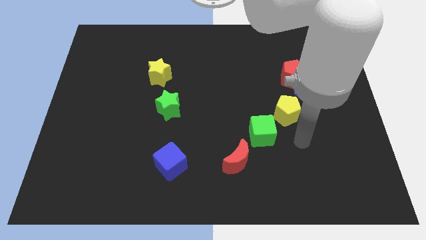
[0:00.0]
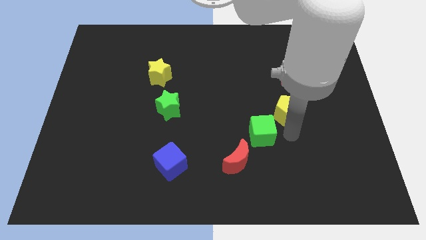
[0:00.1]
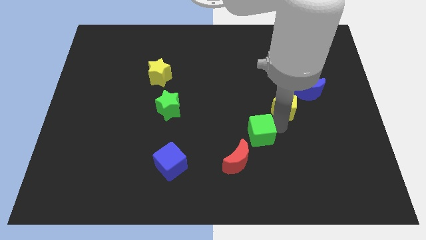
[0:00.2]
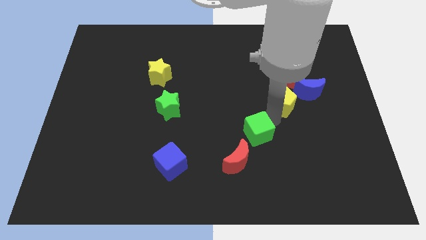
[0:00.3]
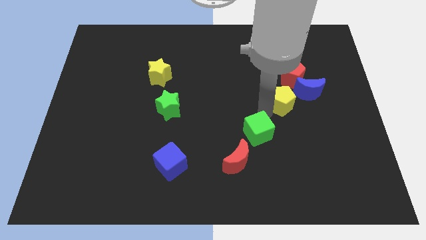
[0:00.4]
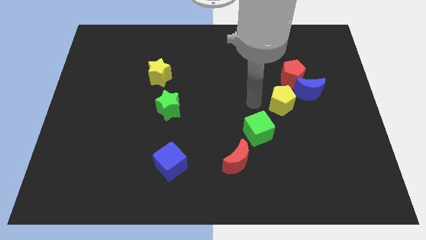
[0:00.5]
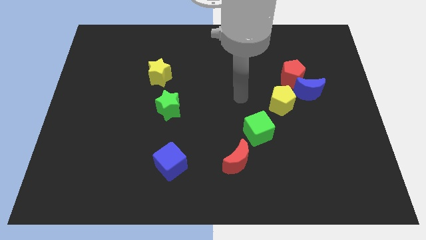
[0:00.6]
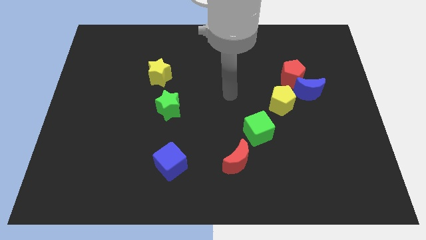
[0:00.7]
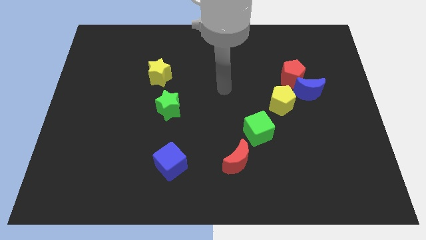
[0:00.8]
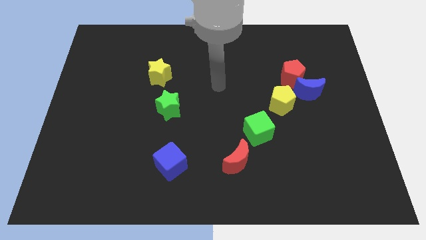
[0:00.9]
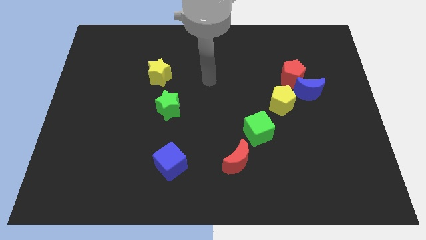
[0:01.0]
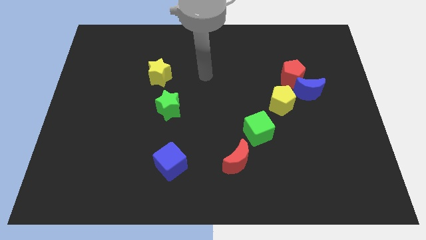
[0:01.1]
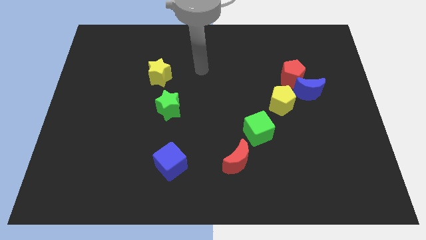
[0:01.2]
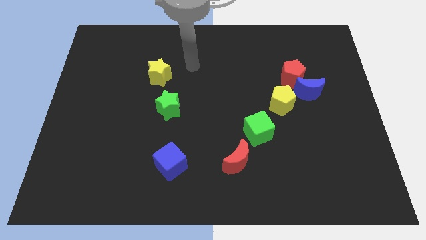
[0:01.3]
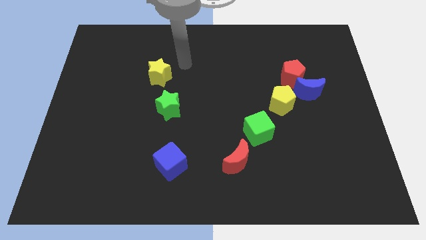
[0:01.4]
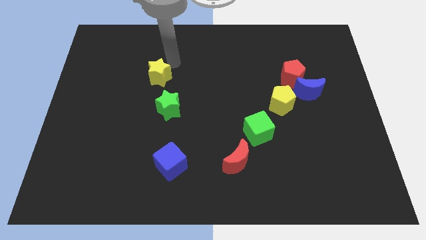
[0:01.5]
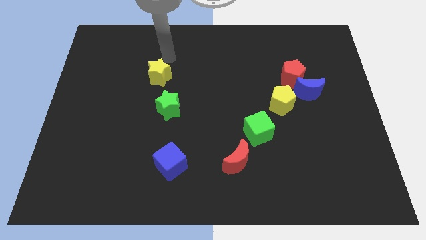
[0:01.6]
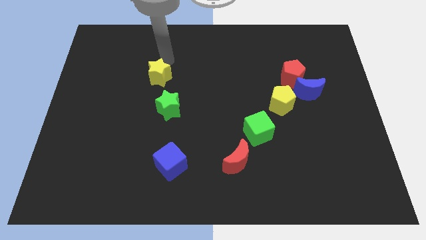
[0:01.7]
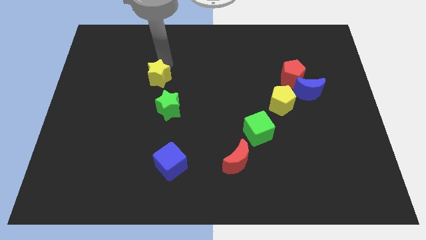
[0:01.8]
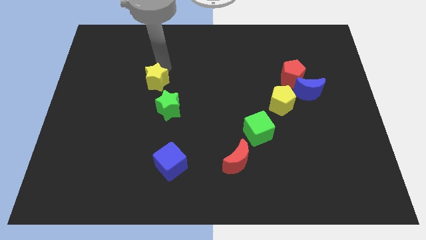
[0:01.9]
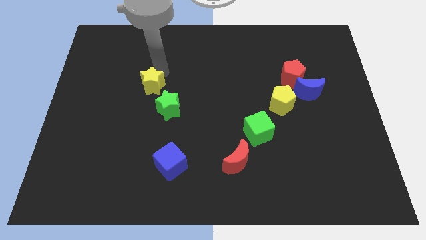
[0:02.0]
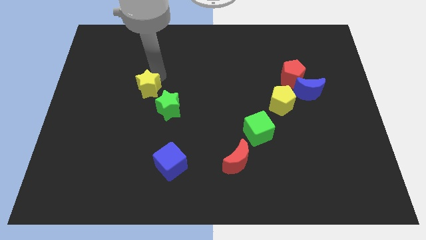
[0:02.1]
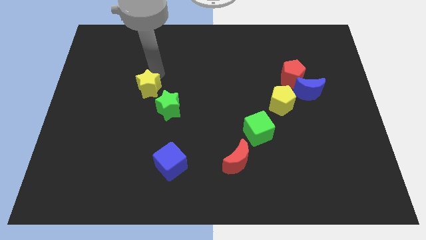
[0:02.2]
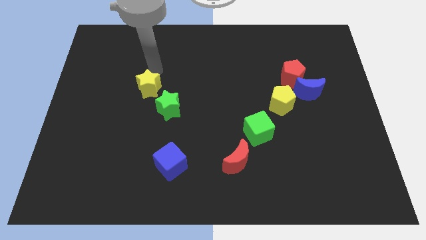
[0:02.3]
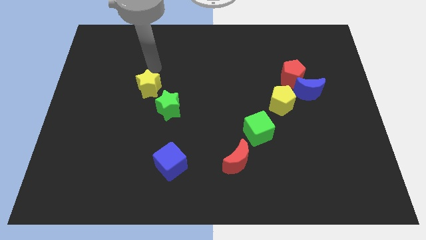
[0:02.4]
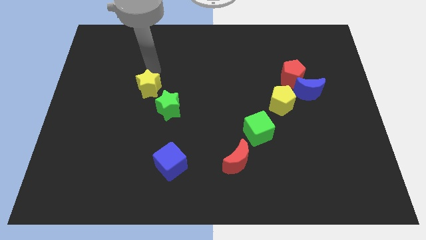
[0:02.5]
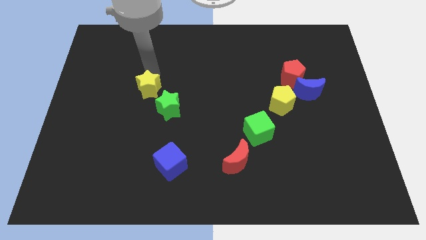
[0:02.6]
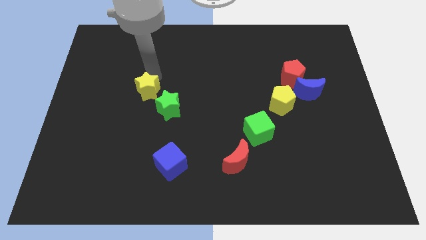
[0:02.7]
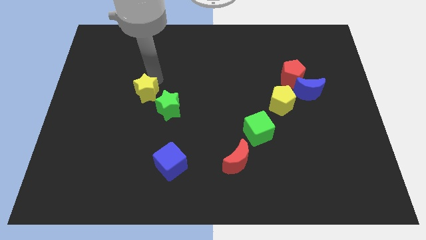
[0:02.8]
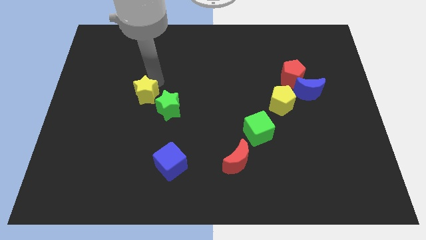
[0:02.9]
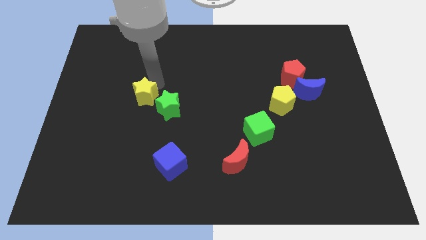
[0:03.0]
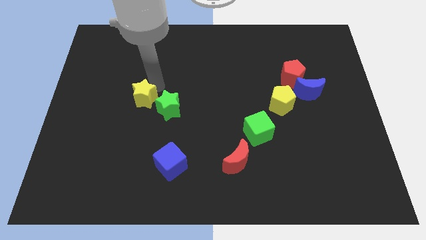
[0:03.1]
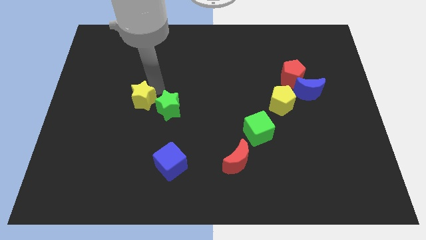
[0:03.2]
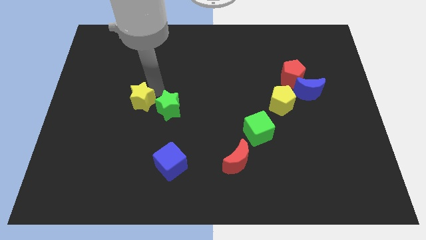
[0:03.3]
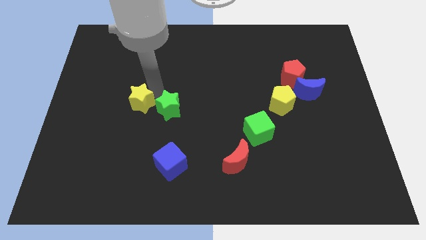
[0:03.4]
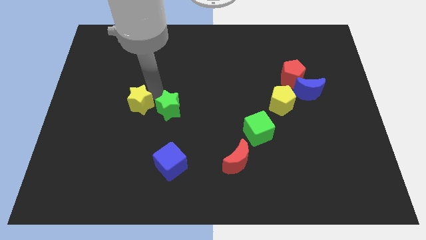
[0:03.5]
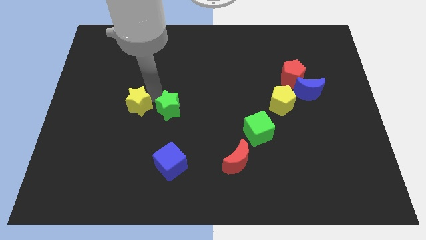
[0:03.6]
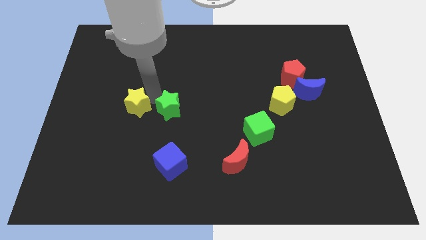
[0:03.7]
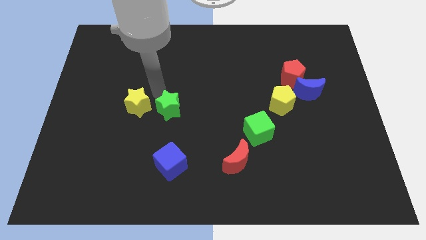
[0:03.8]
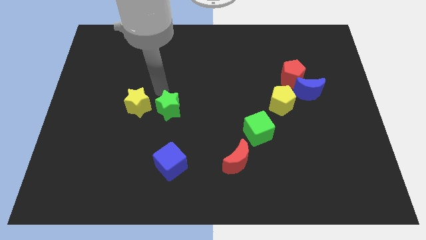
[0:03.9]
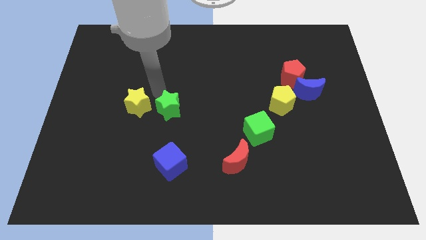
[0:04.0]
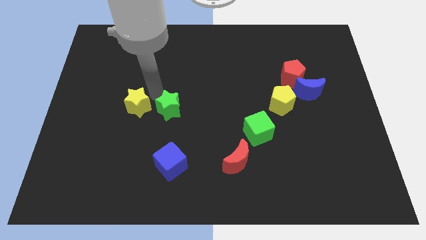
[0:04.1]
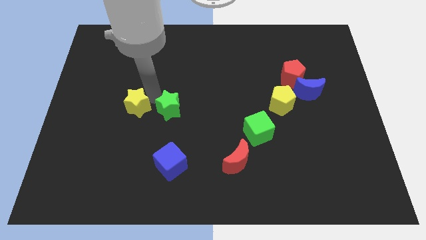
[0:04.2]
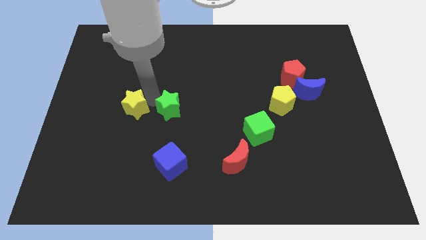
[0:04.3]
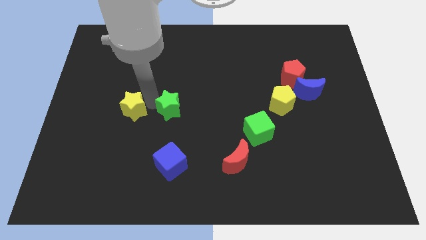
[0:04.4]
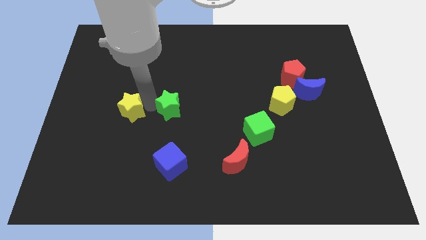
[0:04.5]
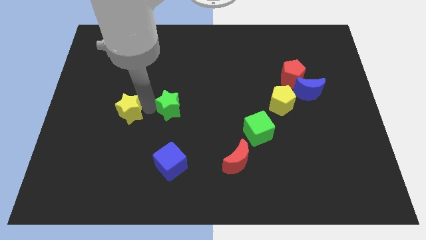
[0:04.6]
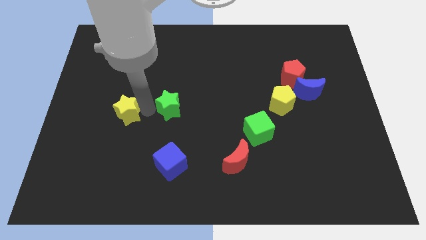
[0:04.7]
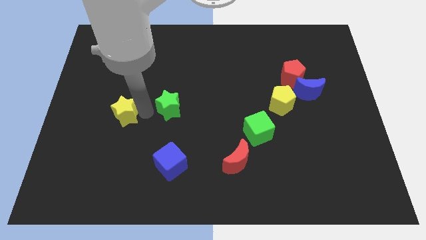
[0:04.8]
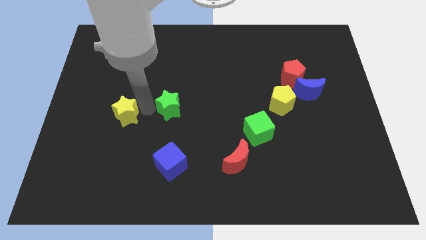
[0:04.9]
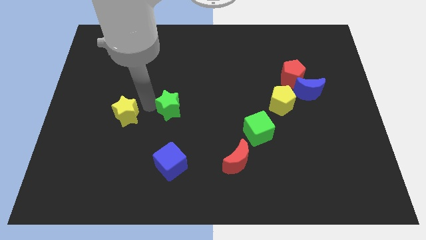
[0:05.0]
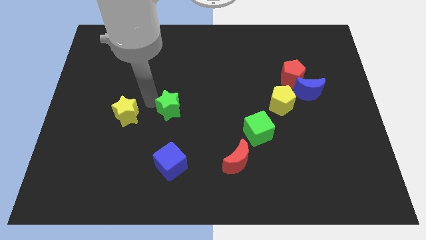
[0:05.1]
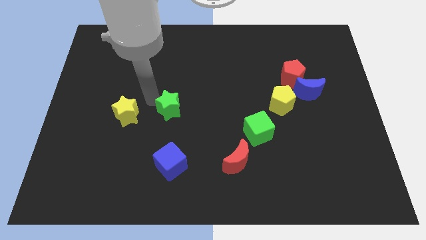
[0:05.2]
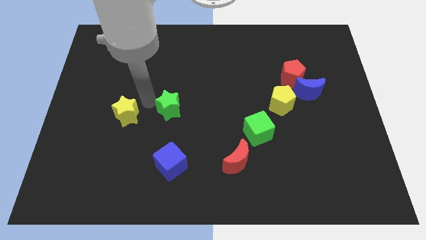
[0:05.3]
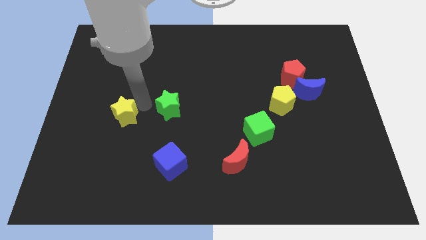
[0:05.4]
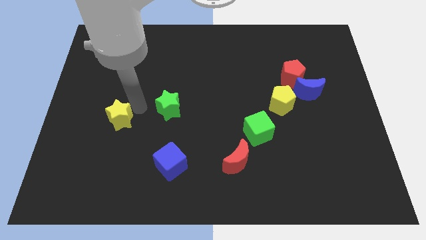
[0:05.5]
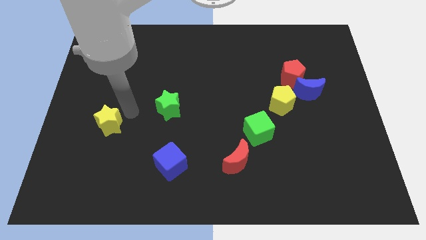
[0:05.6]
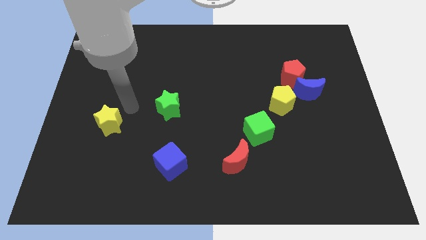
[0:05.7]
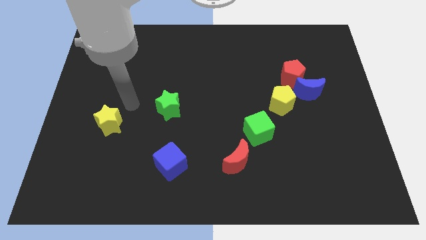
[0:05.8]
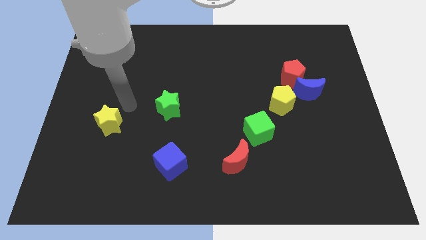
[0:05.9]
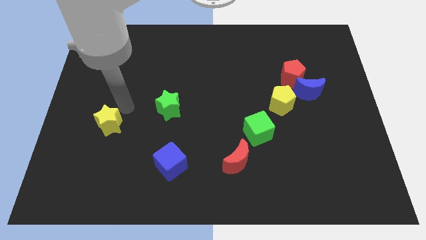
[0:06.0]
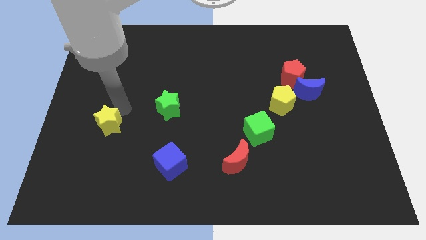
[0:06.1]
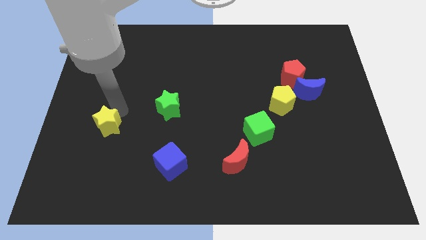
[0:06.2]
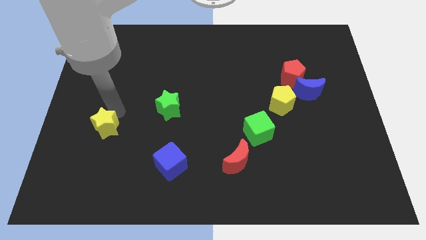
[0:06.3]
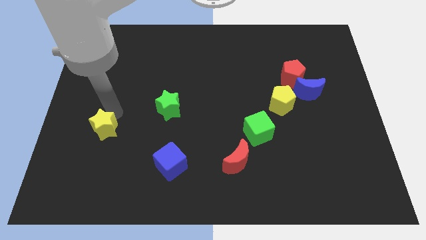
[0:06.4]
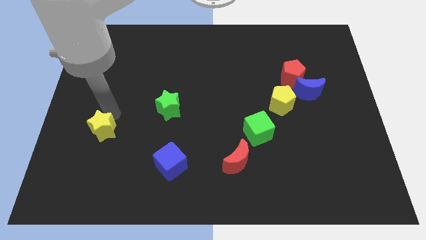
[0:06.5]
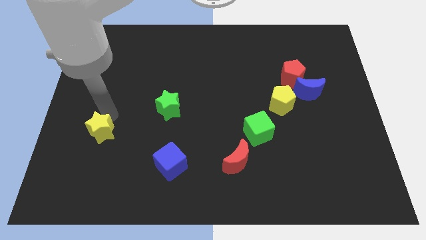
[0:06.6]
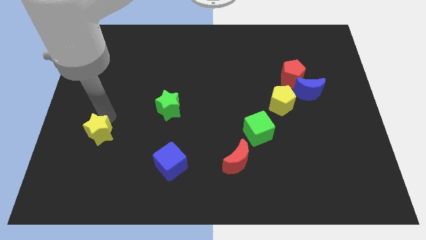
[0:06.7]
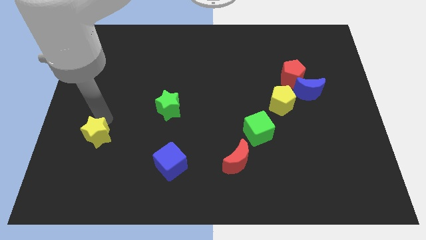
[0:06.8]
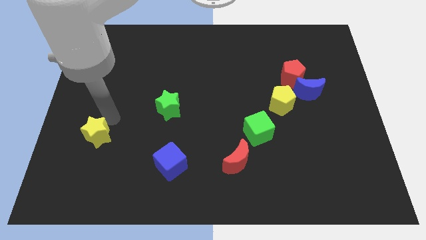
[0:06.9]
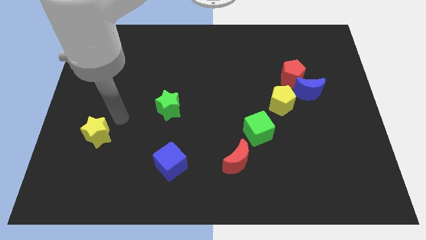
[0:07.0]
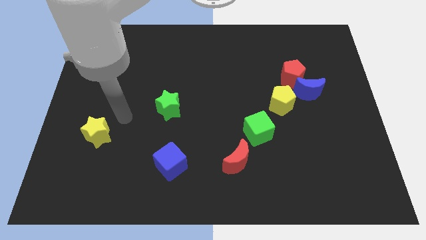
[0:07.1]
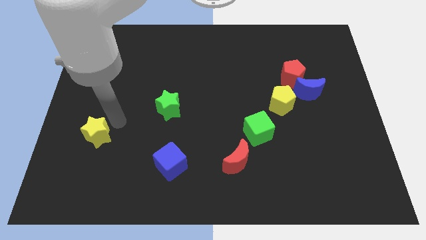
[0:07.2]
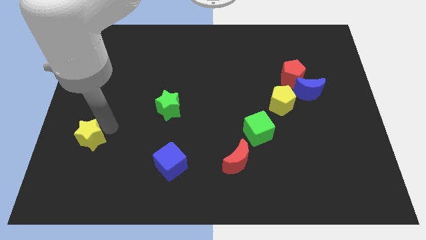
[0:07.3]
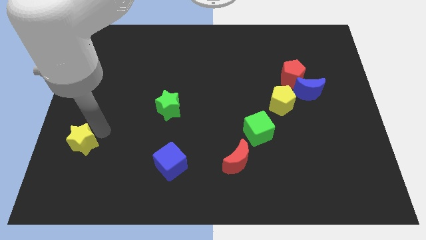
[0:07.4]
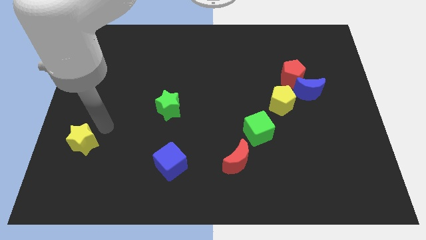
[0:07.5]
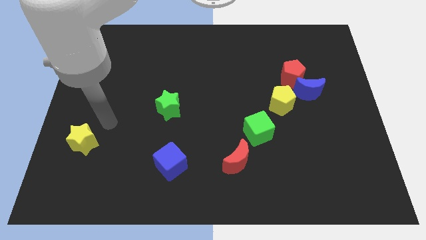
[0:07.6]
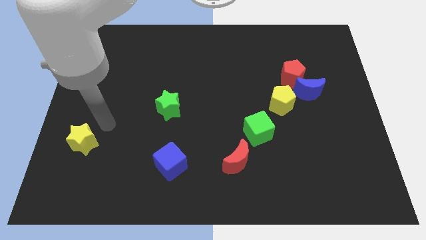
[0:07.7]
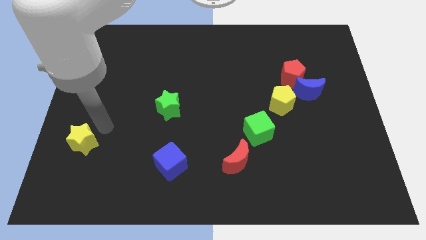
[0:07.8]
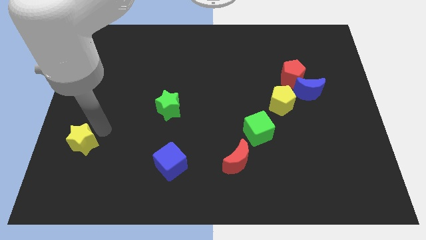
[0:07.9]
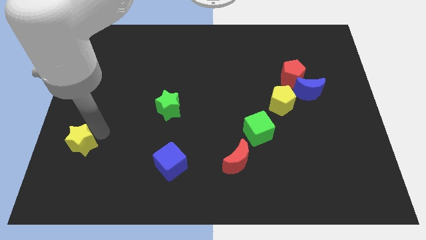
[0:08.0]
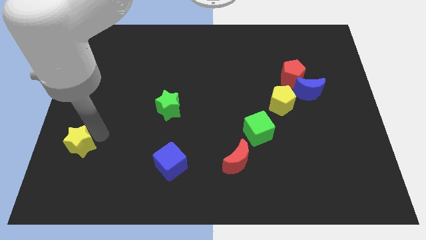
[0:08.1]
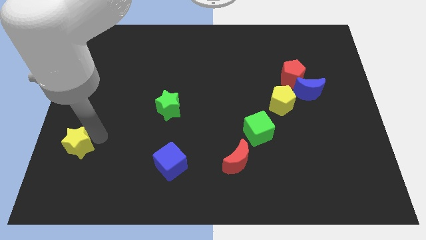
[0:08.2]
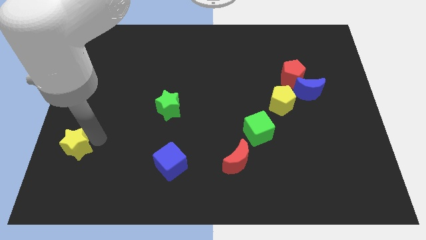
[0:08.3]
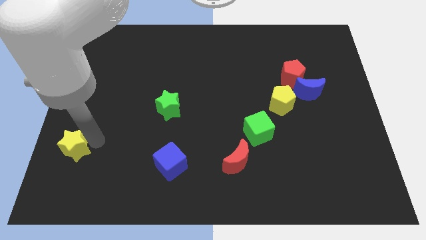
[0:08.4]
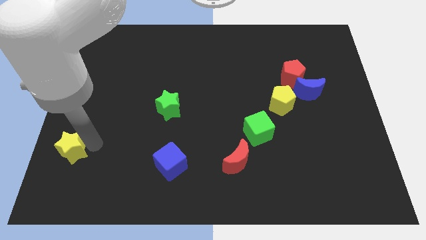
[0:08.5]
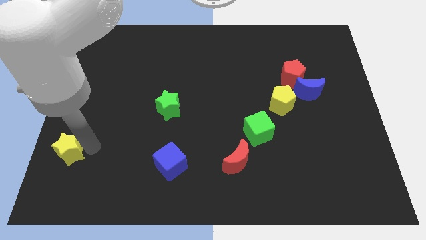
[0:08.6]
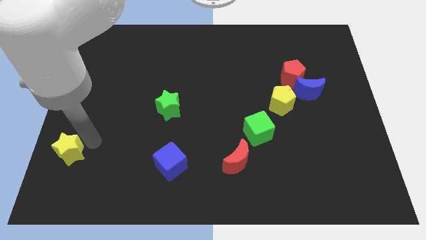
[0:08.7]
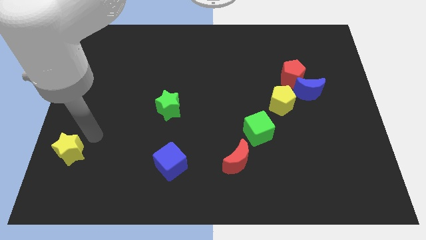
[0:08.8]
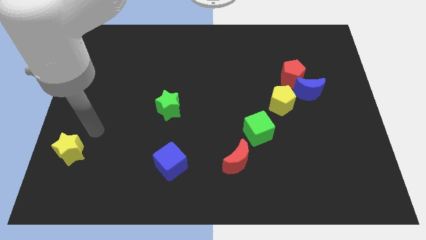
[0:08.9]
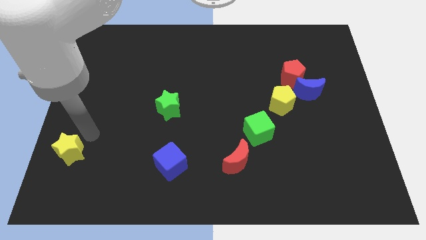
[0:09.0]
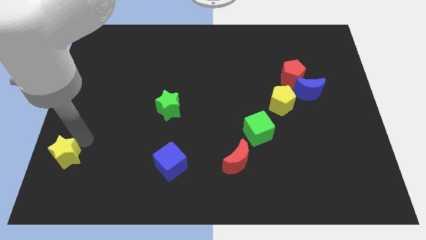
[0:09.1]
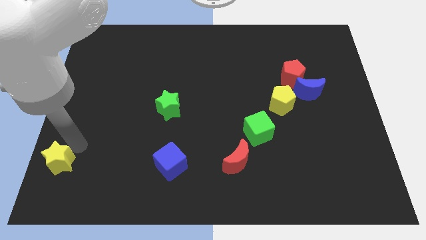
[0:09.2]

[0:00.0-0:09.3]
put the yellow star to the bottom left corner
